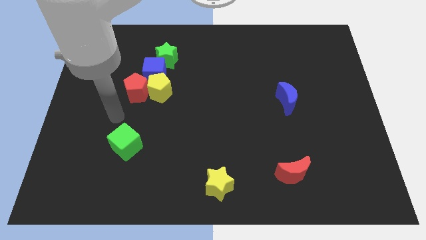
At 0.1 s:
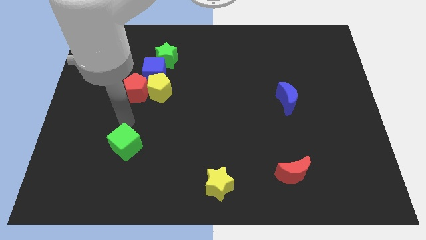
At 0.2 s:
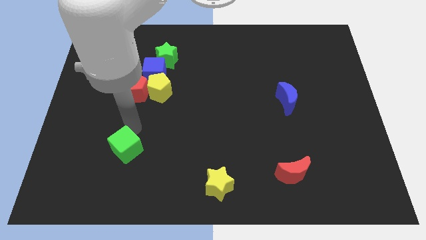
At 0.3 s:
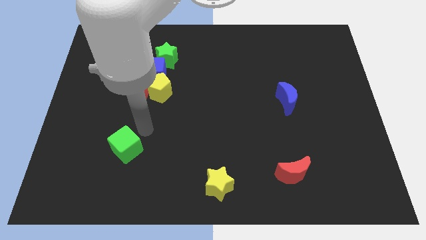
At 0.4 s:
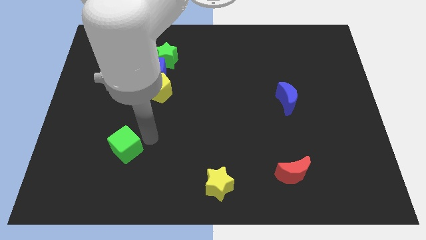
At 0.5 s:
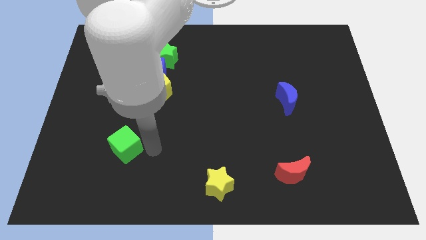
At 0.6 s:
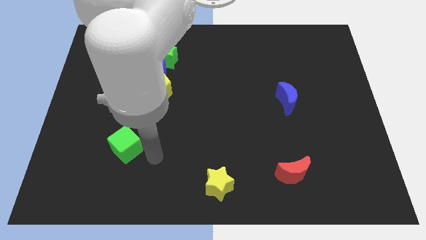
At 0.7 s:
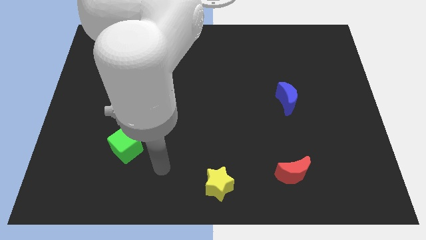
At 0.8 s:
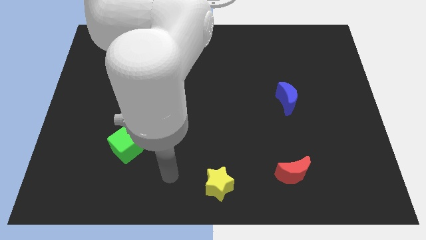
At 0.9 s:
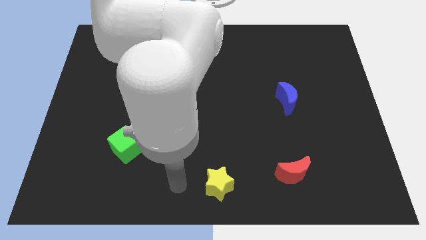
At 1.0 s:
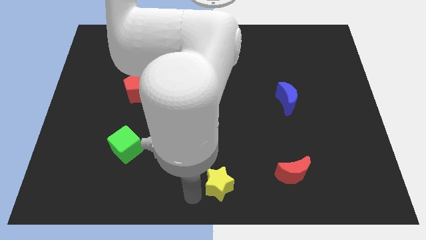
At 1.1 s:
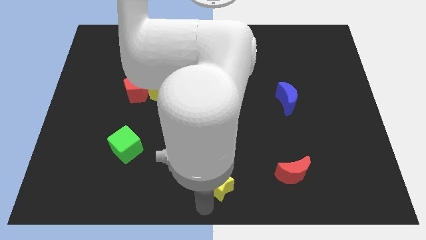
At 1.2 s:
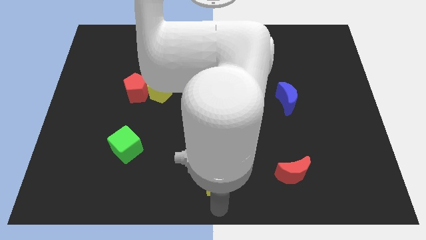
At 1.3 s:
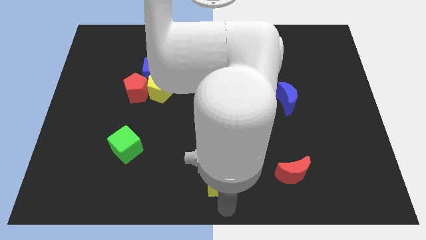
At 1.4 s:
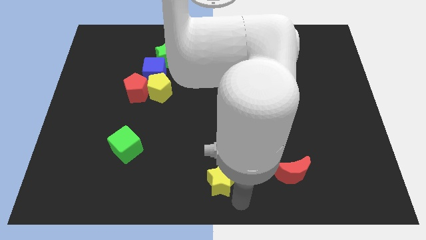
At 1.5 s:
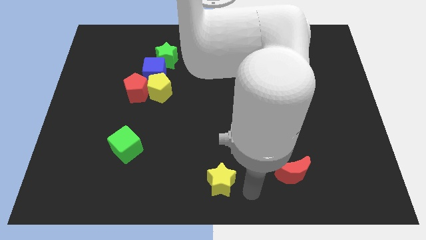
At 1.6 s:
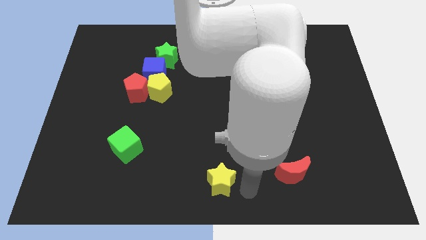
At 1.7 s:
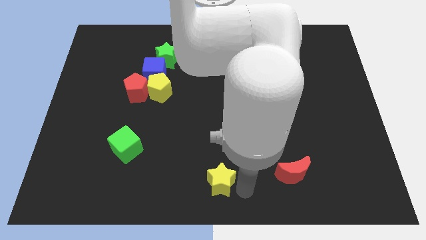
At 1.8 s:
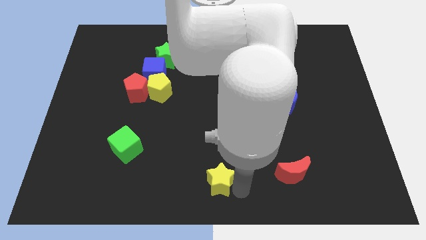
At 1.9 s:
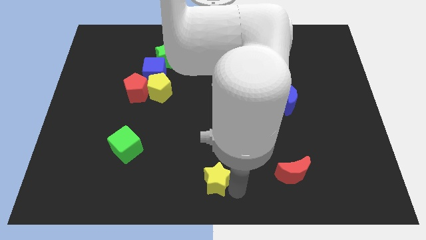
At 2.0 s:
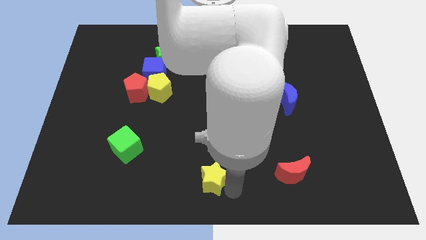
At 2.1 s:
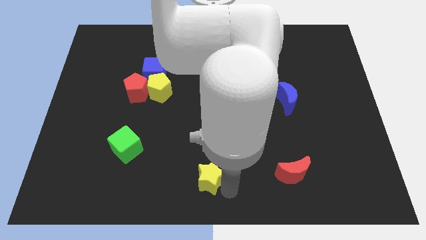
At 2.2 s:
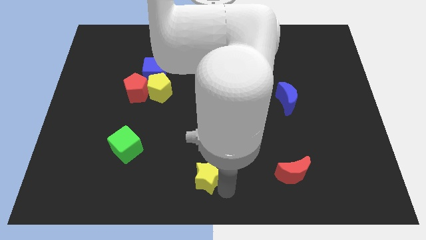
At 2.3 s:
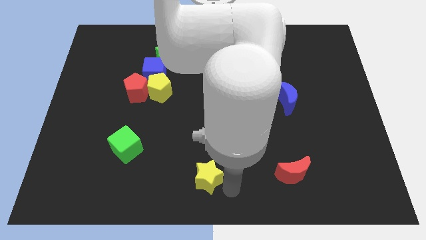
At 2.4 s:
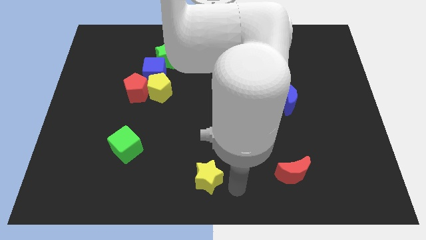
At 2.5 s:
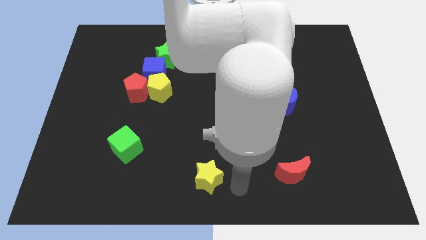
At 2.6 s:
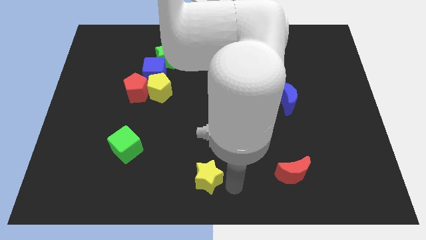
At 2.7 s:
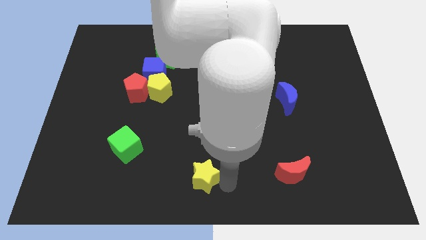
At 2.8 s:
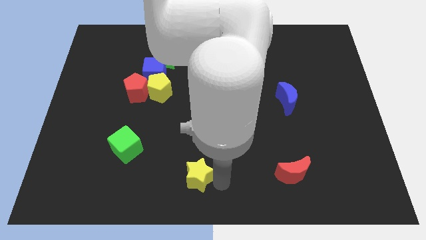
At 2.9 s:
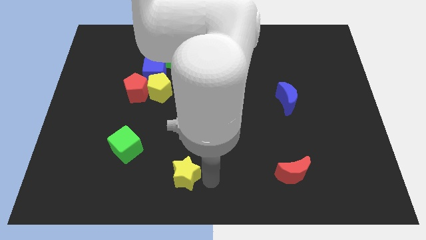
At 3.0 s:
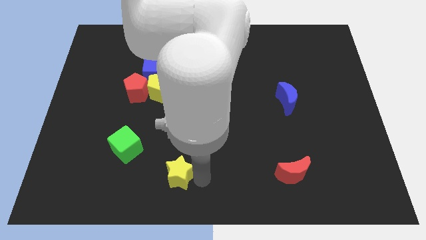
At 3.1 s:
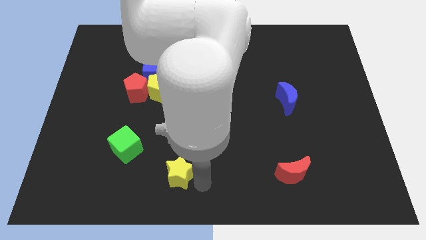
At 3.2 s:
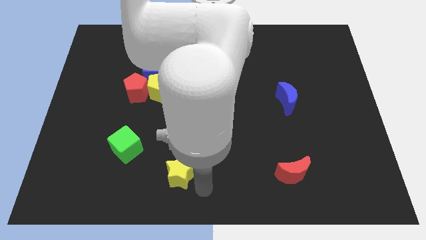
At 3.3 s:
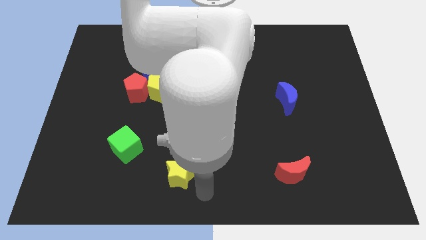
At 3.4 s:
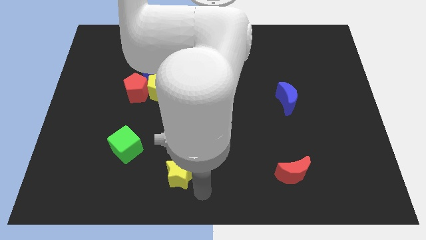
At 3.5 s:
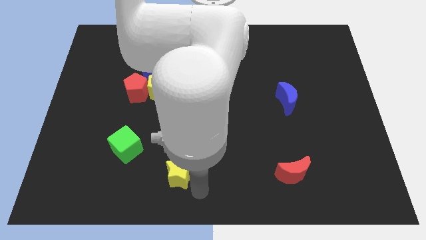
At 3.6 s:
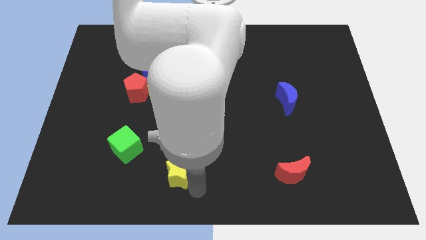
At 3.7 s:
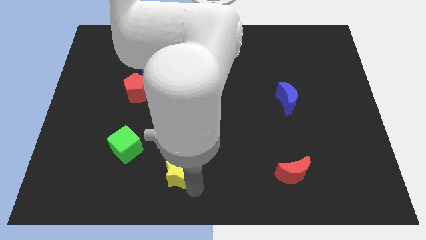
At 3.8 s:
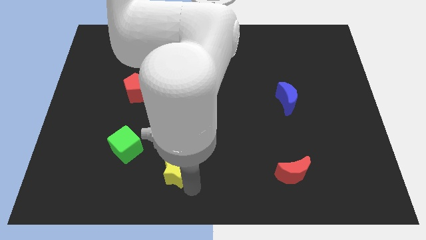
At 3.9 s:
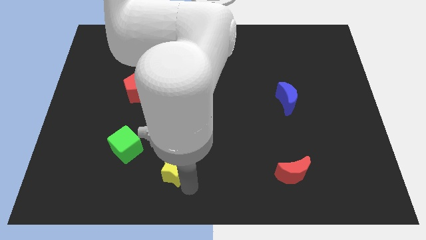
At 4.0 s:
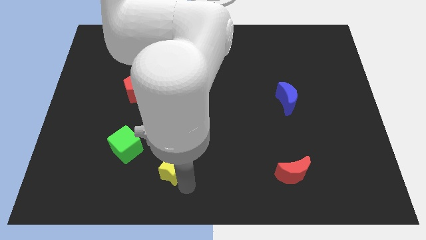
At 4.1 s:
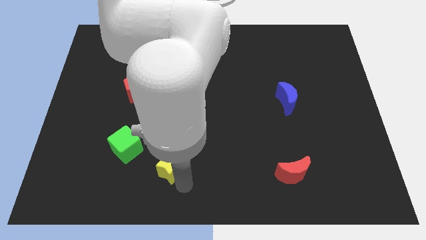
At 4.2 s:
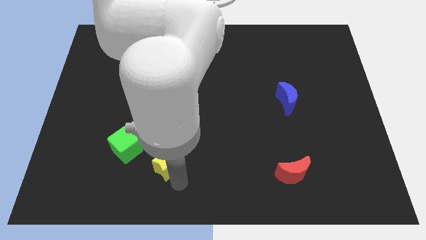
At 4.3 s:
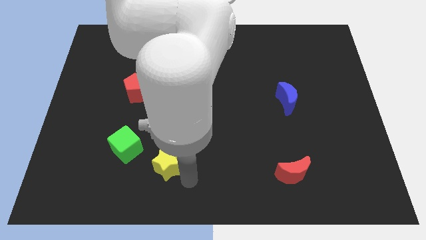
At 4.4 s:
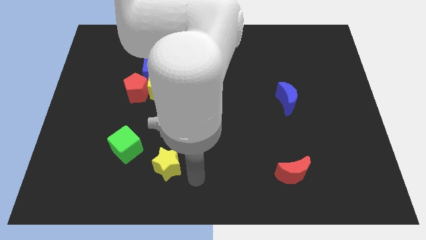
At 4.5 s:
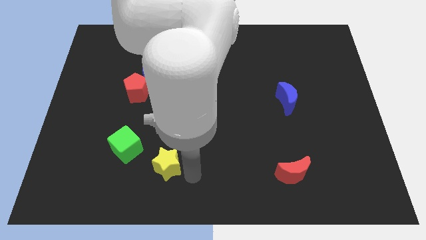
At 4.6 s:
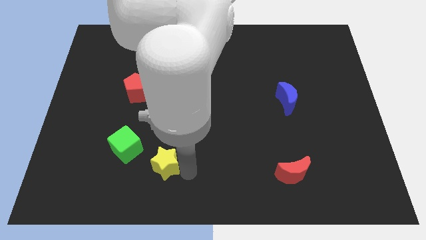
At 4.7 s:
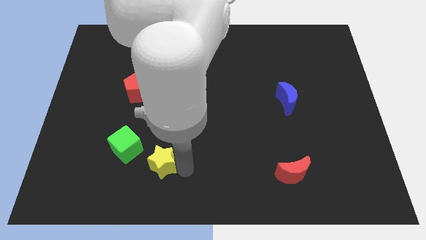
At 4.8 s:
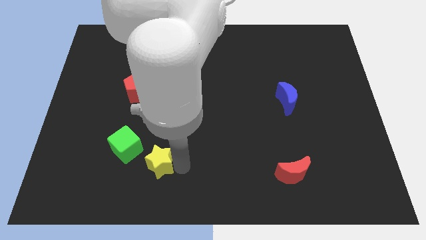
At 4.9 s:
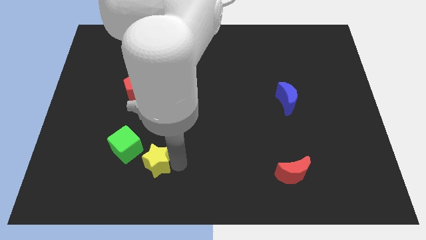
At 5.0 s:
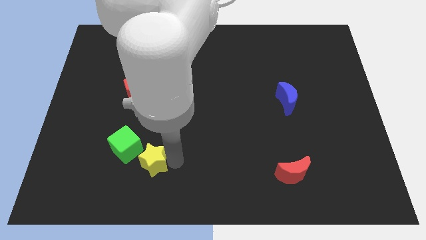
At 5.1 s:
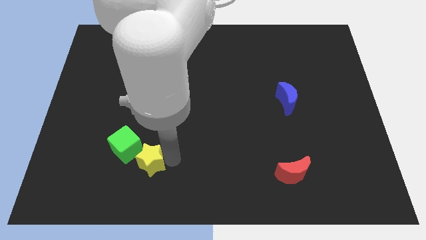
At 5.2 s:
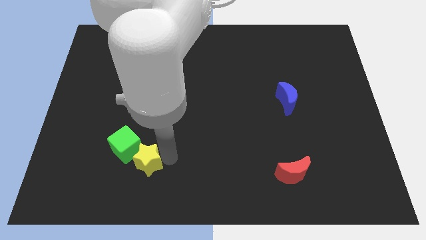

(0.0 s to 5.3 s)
put the yellow star next to the green cube

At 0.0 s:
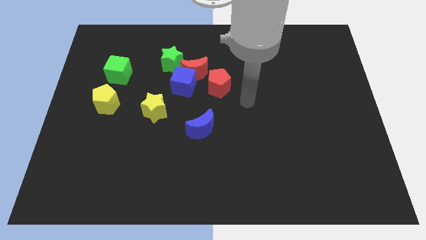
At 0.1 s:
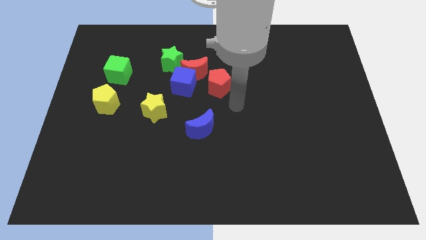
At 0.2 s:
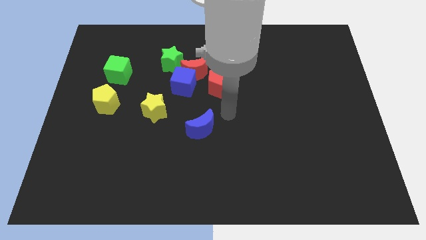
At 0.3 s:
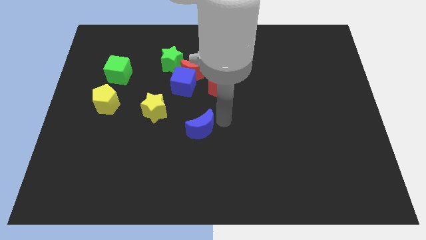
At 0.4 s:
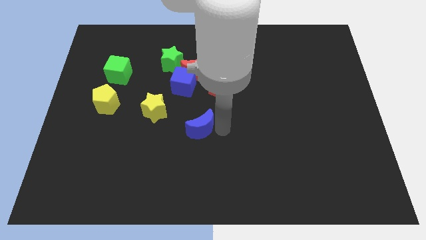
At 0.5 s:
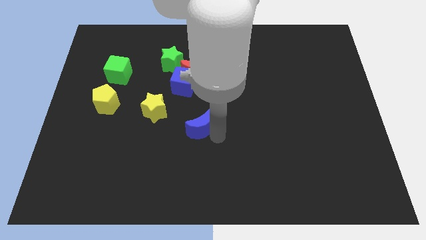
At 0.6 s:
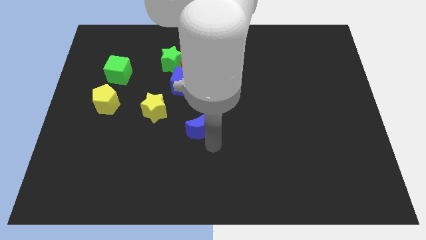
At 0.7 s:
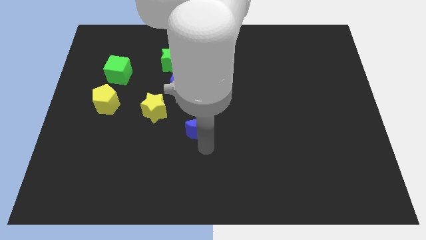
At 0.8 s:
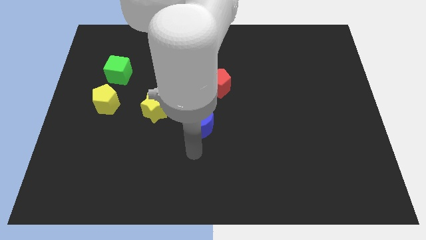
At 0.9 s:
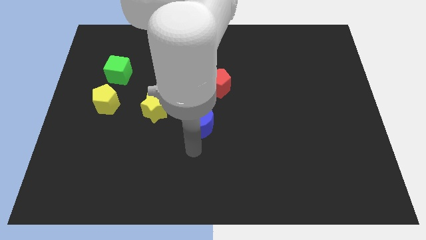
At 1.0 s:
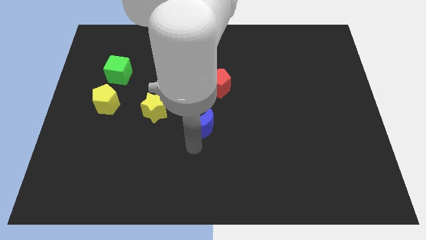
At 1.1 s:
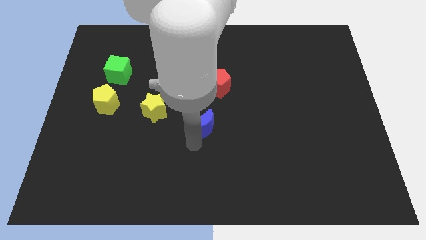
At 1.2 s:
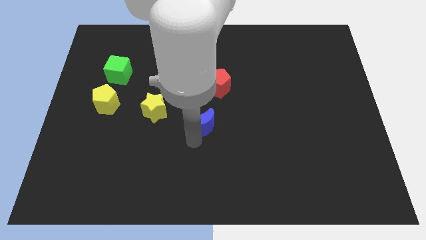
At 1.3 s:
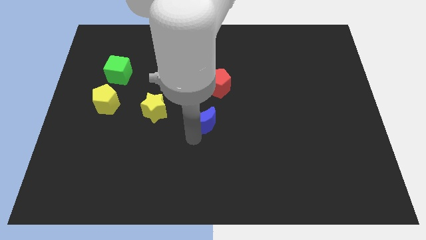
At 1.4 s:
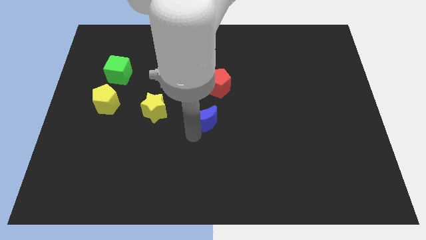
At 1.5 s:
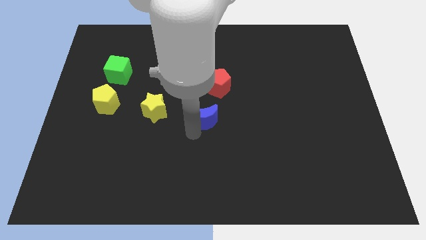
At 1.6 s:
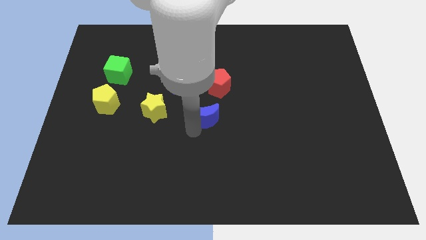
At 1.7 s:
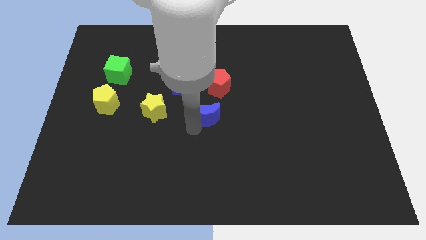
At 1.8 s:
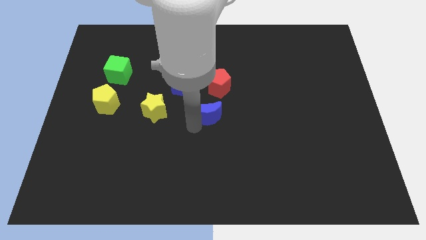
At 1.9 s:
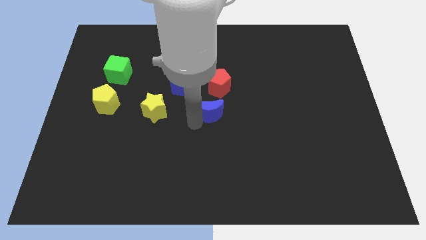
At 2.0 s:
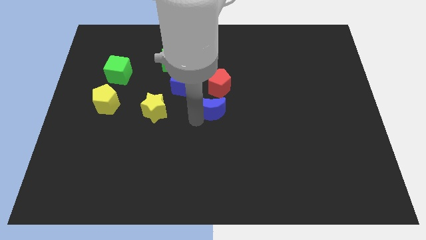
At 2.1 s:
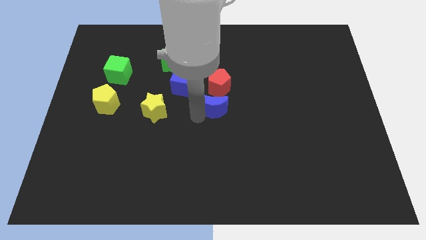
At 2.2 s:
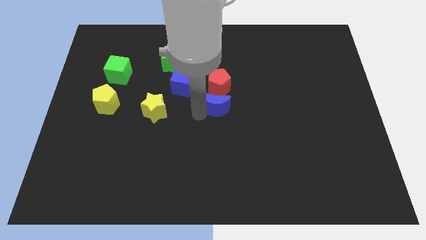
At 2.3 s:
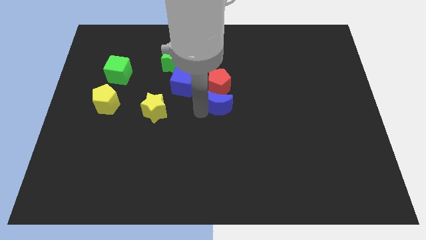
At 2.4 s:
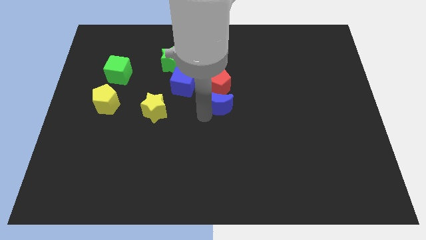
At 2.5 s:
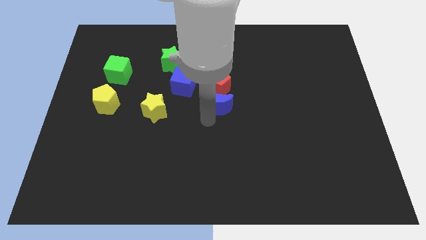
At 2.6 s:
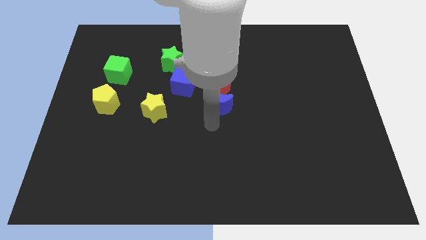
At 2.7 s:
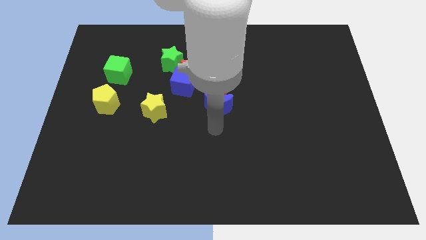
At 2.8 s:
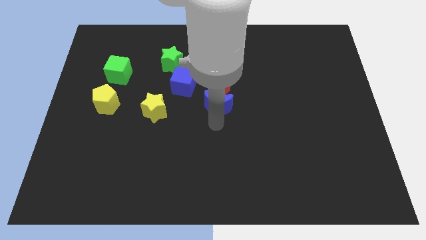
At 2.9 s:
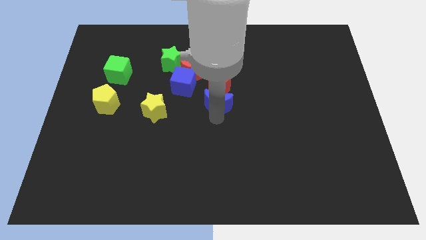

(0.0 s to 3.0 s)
move the blue moon towards the red pentagon
